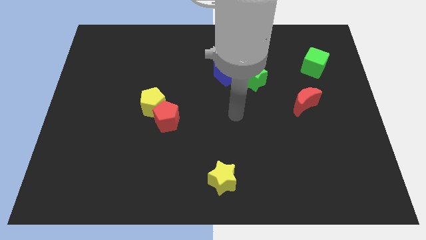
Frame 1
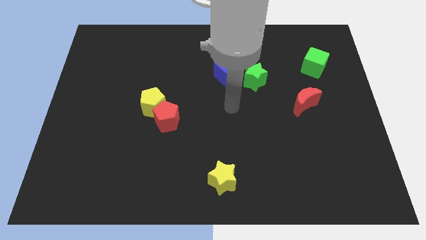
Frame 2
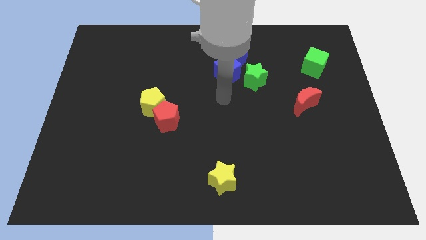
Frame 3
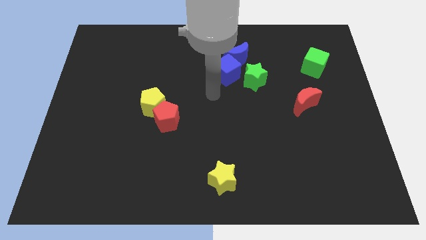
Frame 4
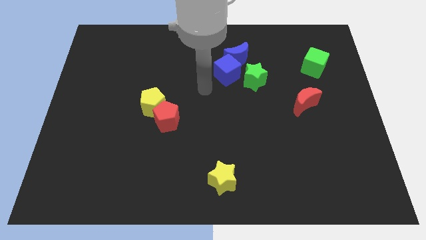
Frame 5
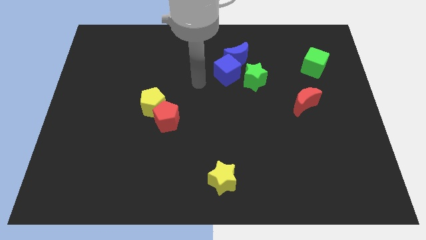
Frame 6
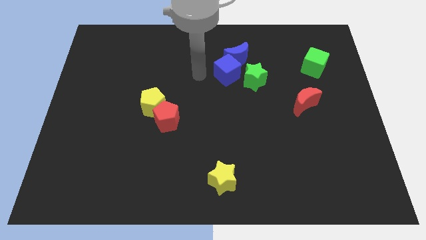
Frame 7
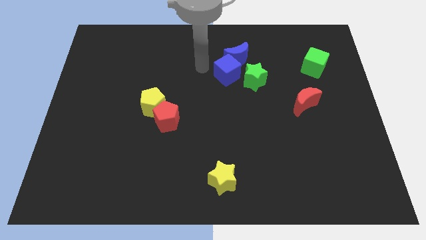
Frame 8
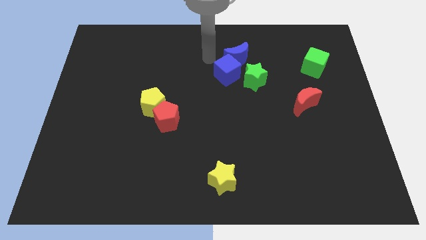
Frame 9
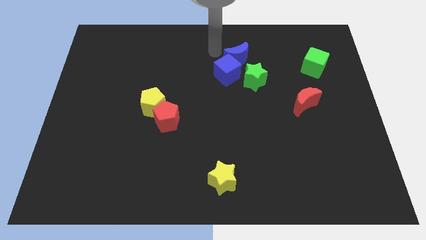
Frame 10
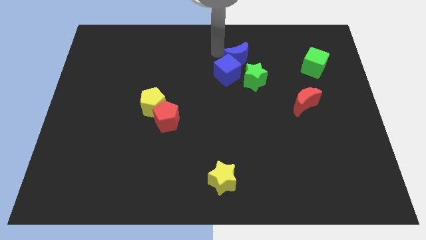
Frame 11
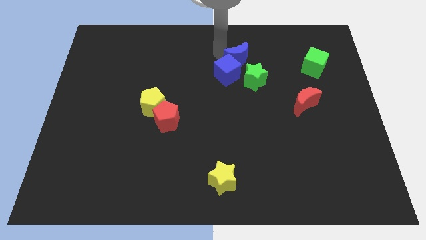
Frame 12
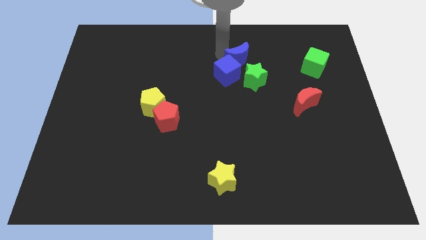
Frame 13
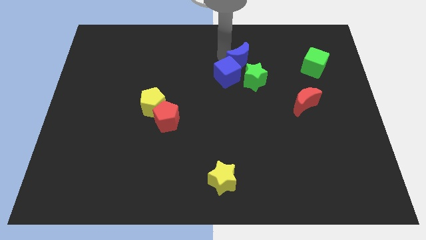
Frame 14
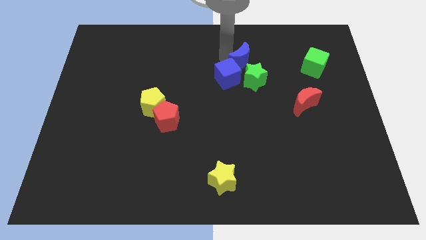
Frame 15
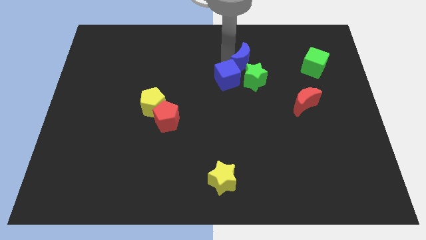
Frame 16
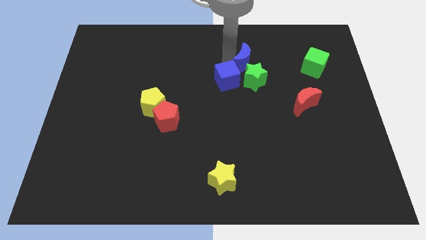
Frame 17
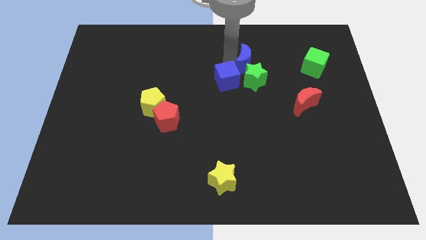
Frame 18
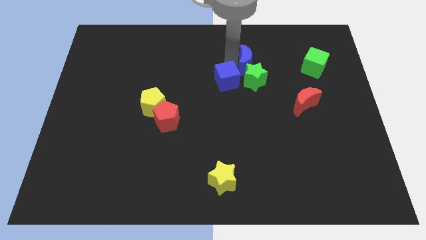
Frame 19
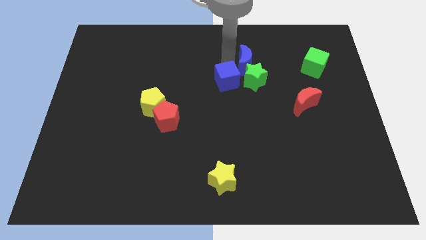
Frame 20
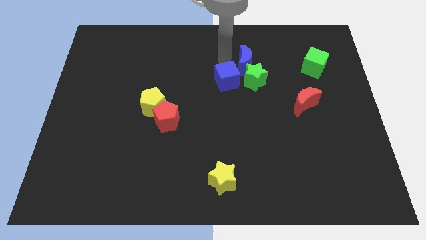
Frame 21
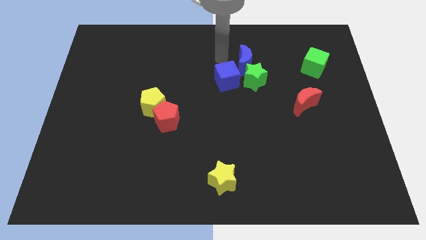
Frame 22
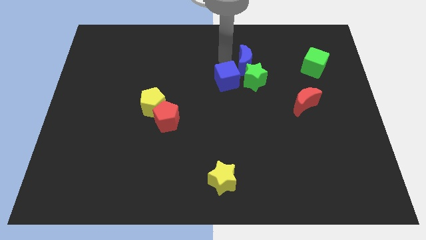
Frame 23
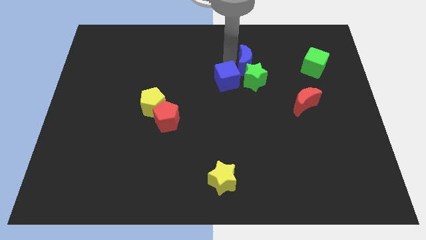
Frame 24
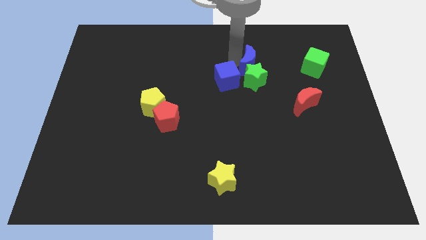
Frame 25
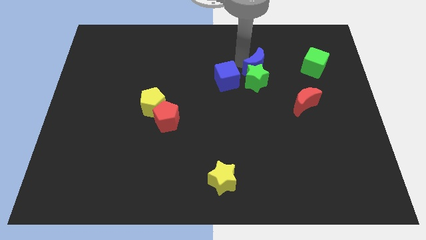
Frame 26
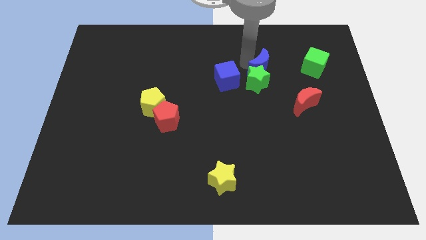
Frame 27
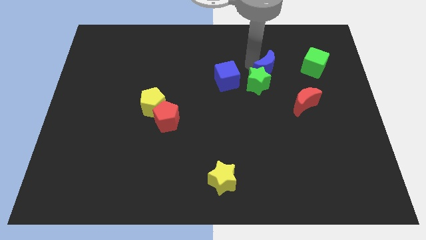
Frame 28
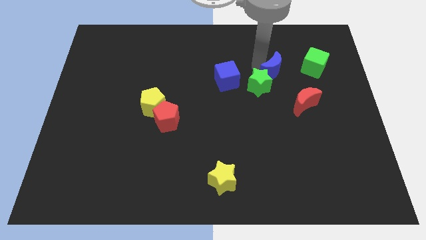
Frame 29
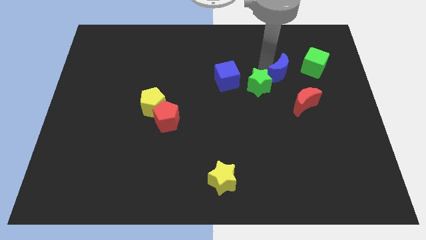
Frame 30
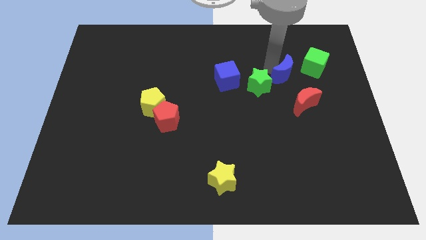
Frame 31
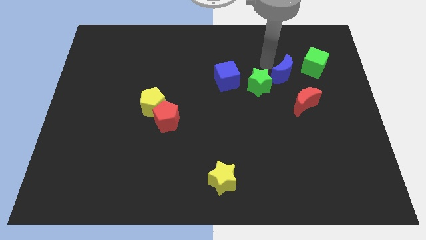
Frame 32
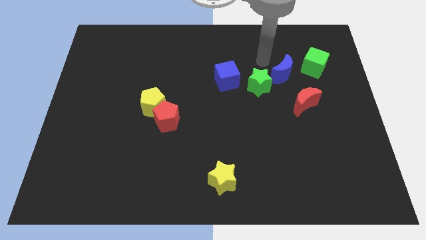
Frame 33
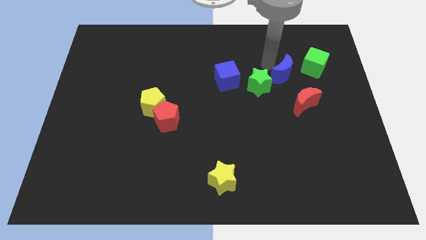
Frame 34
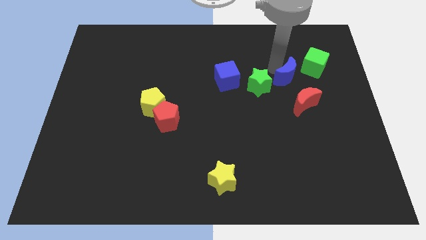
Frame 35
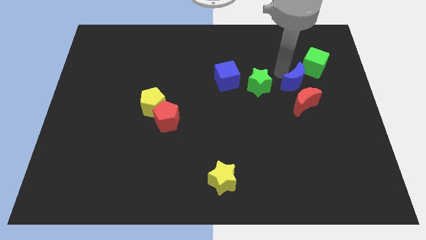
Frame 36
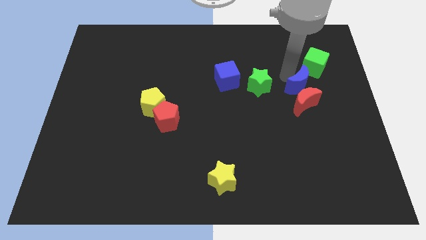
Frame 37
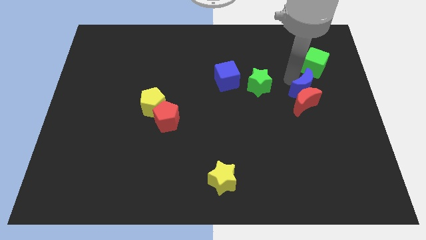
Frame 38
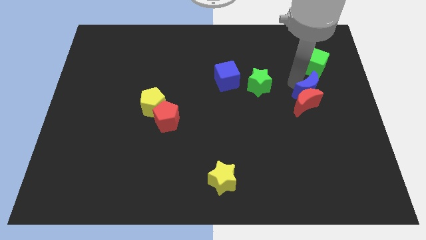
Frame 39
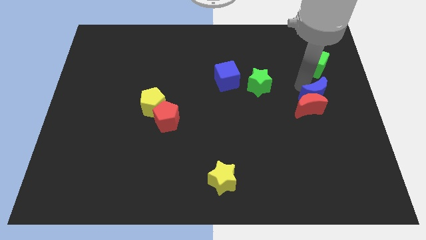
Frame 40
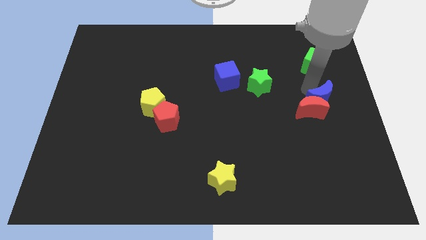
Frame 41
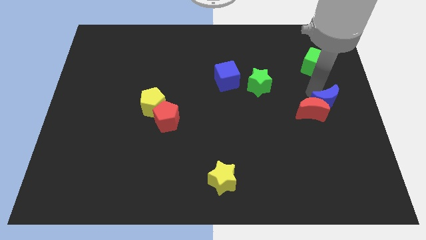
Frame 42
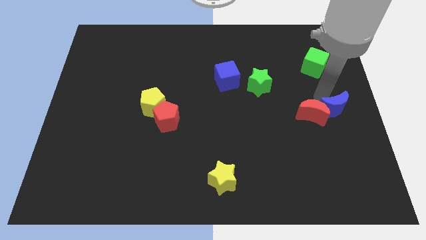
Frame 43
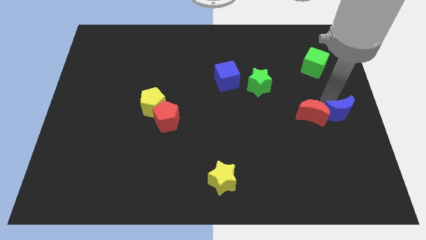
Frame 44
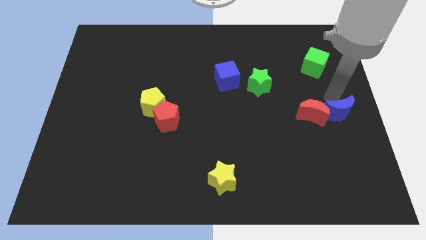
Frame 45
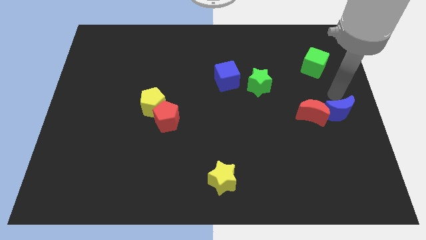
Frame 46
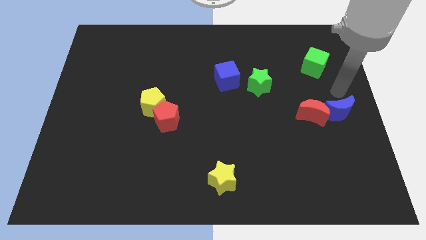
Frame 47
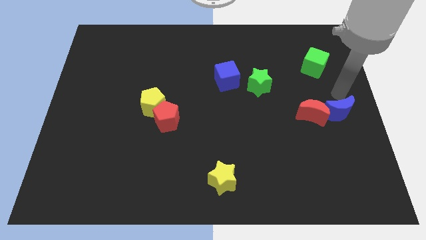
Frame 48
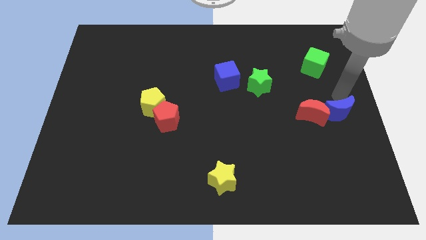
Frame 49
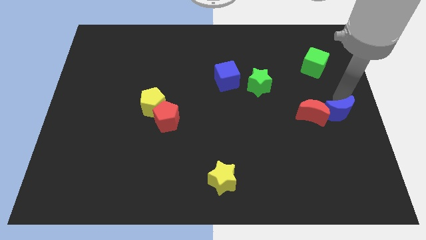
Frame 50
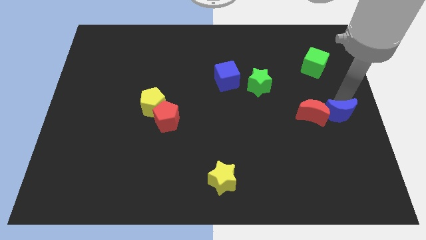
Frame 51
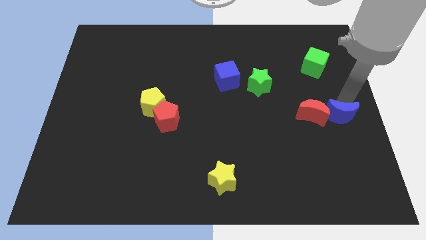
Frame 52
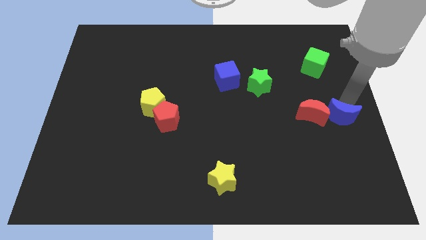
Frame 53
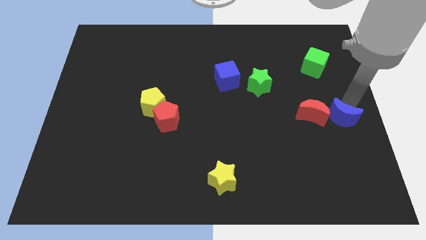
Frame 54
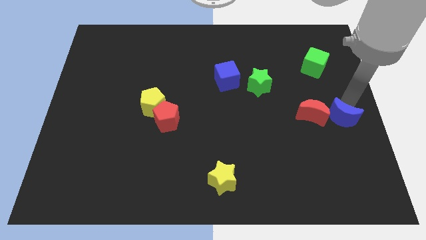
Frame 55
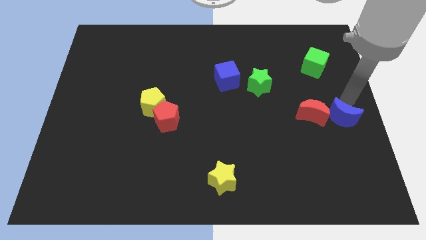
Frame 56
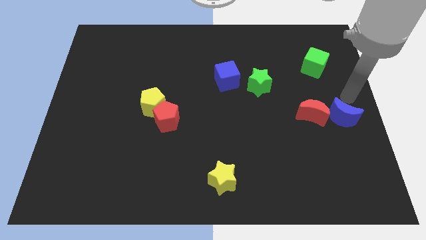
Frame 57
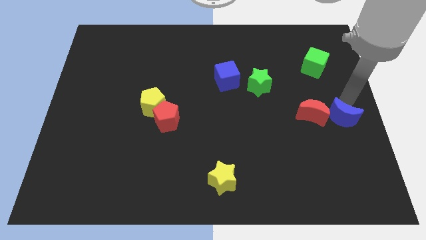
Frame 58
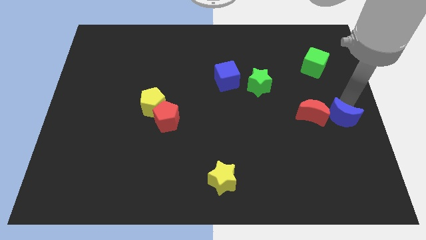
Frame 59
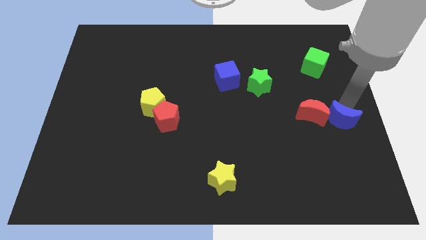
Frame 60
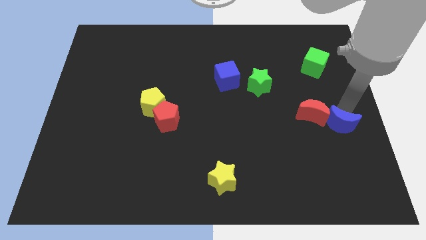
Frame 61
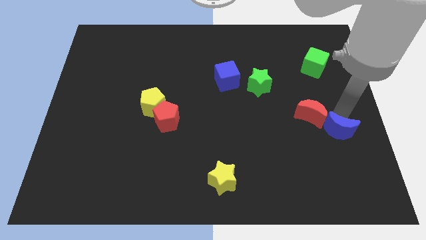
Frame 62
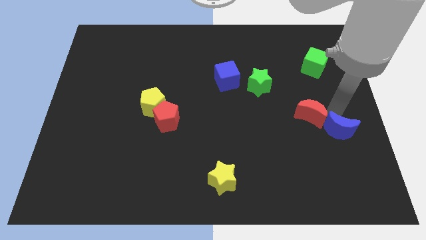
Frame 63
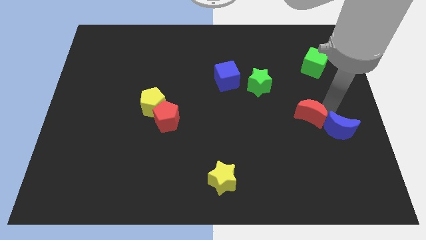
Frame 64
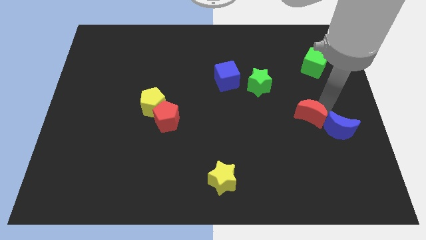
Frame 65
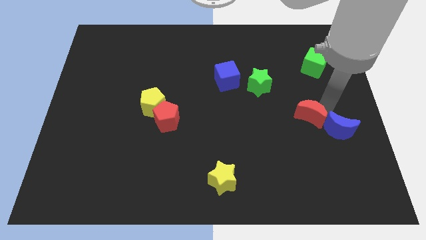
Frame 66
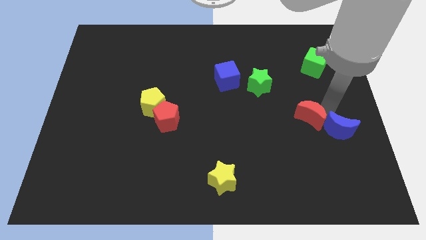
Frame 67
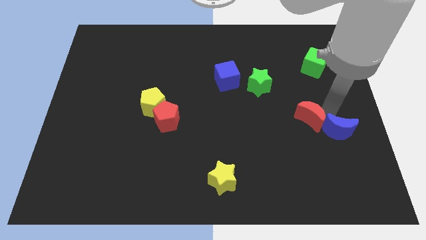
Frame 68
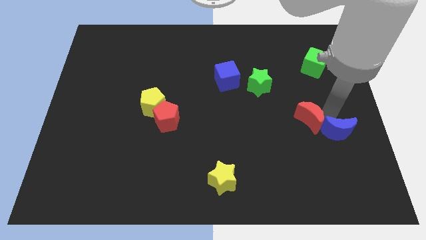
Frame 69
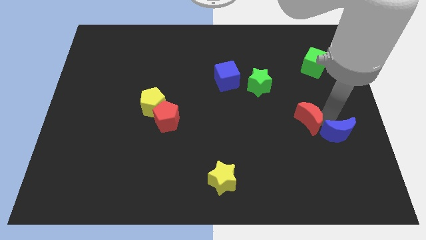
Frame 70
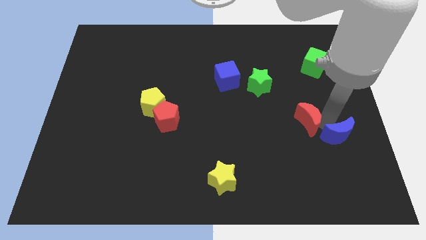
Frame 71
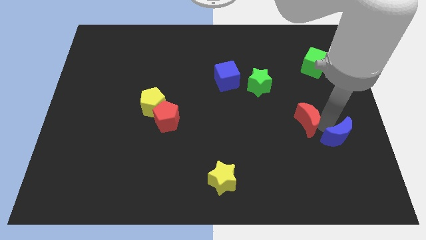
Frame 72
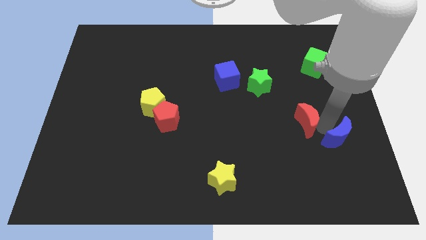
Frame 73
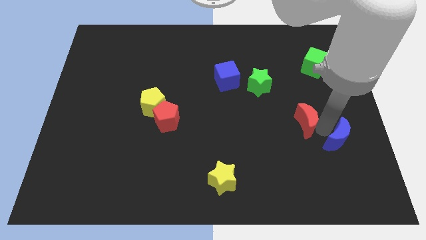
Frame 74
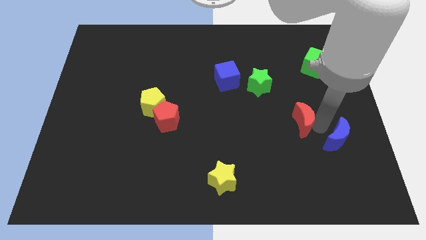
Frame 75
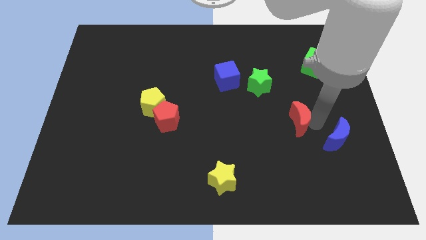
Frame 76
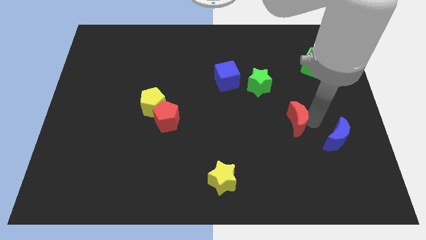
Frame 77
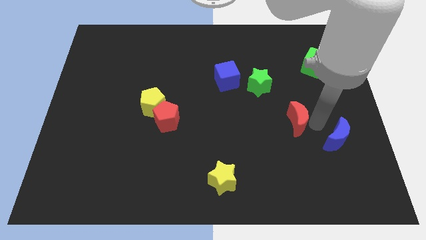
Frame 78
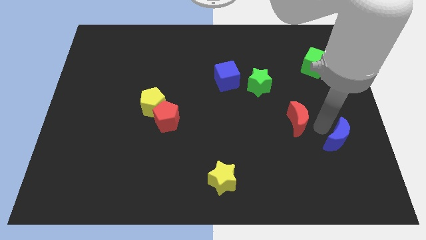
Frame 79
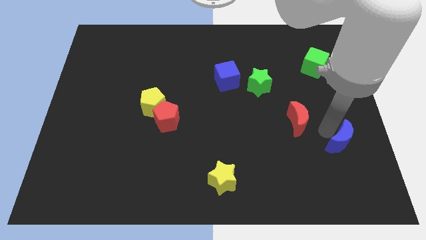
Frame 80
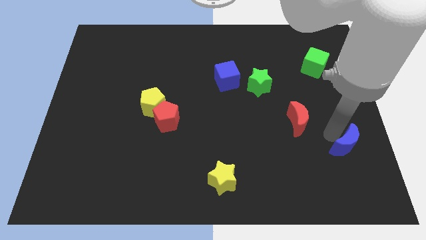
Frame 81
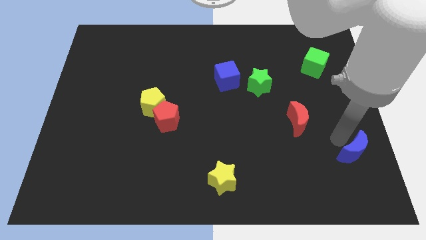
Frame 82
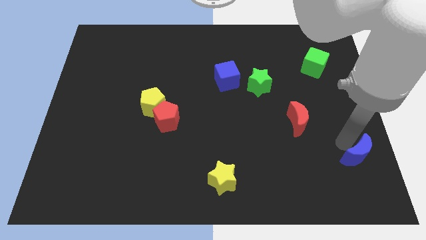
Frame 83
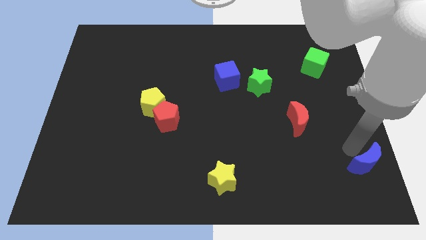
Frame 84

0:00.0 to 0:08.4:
put the blue moon to the bottom right corner
